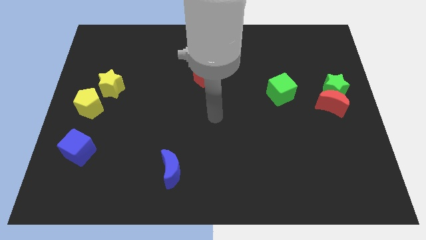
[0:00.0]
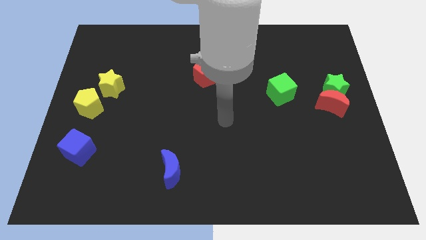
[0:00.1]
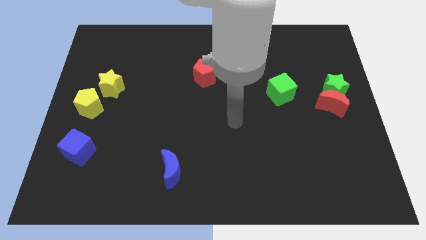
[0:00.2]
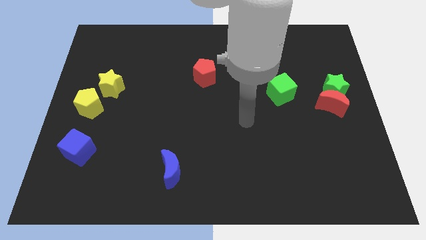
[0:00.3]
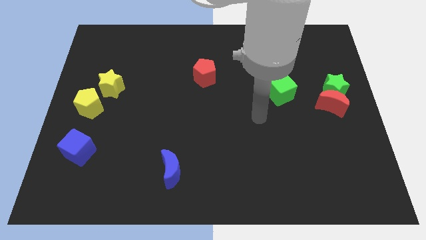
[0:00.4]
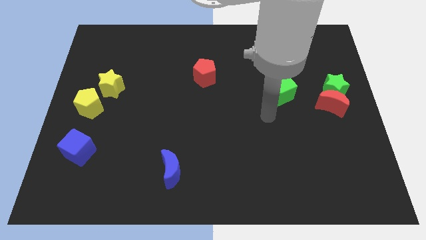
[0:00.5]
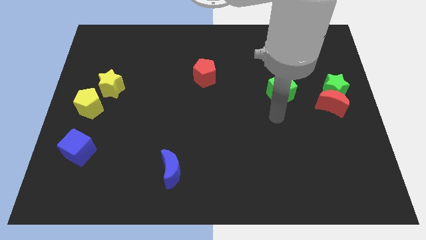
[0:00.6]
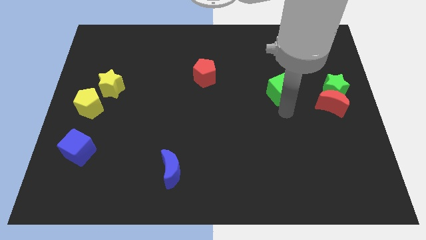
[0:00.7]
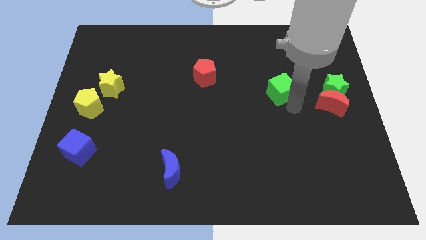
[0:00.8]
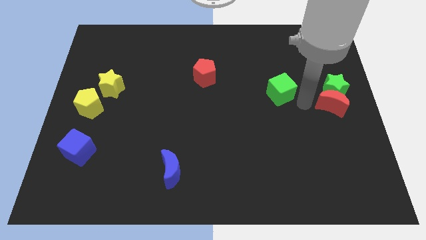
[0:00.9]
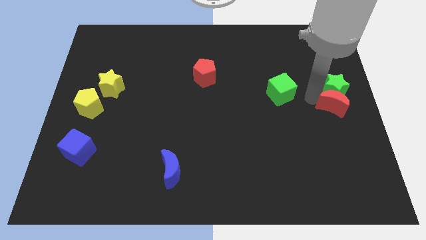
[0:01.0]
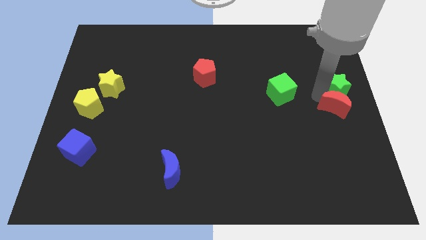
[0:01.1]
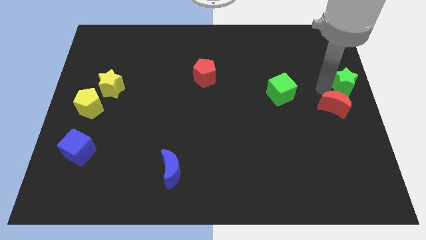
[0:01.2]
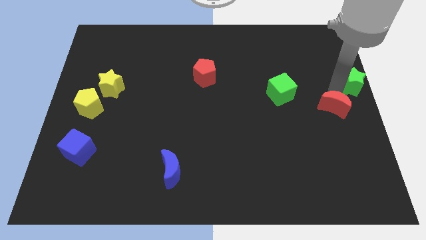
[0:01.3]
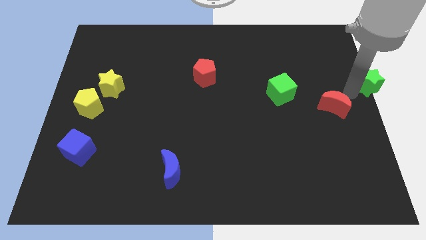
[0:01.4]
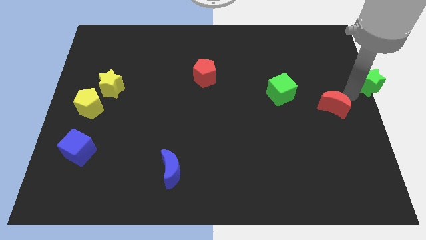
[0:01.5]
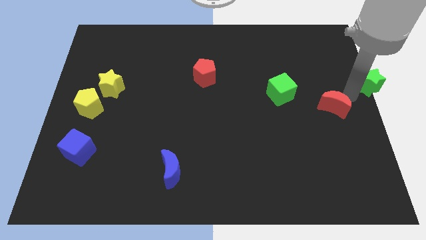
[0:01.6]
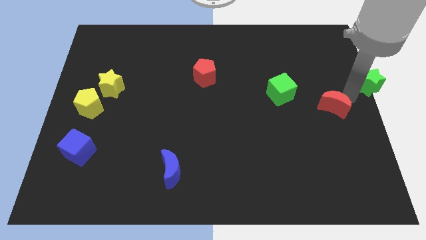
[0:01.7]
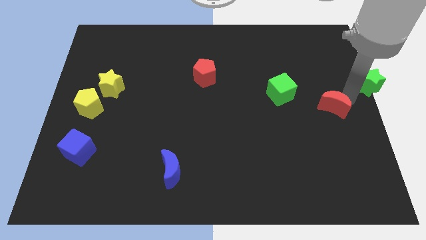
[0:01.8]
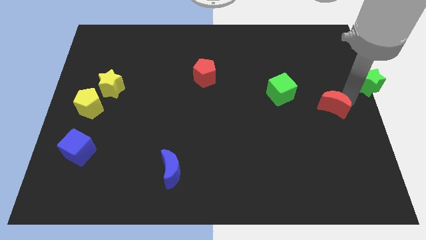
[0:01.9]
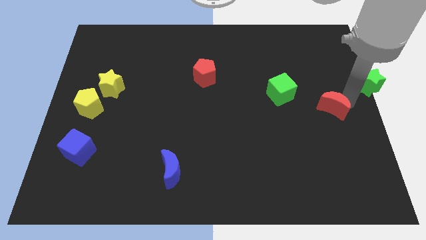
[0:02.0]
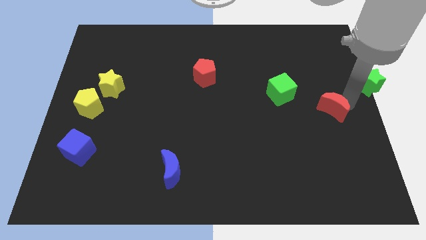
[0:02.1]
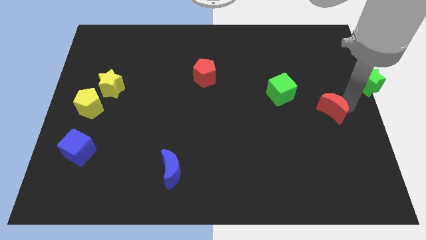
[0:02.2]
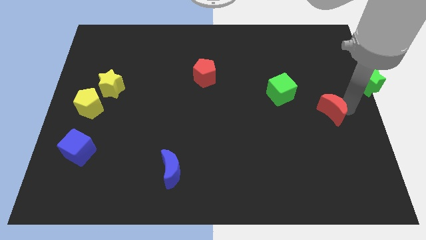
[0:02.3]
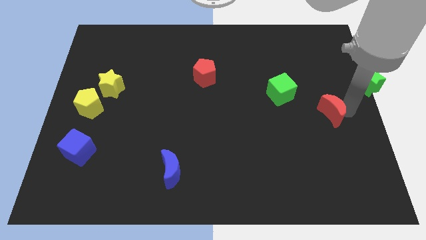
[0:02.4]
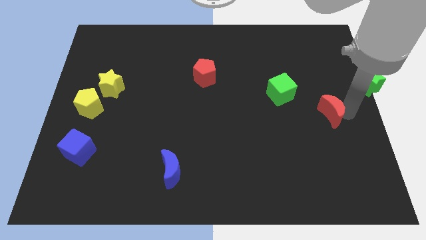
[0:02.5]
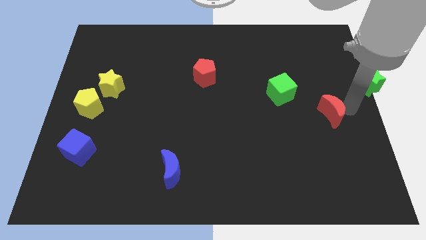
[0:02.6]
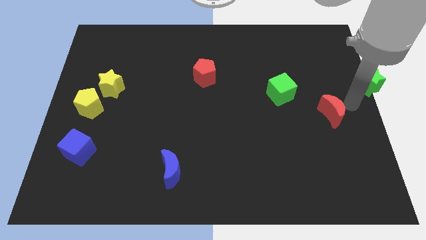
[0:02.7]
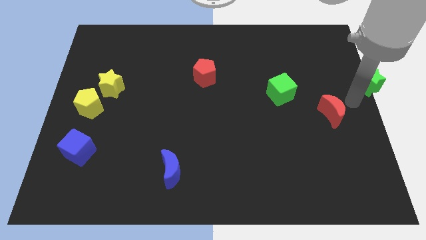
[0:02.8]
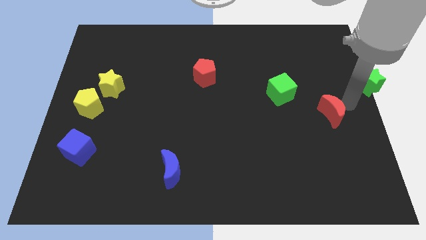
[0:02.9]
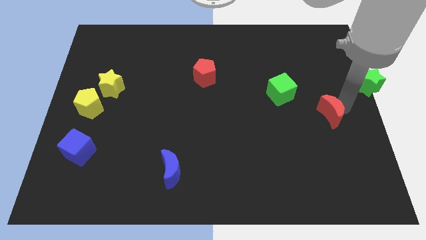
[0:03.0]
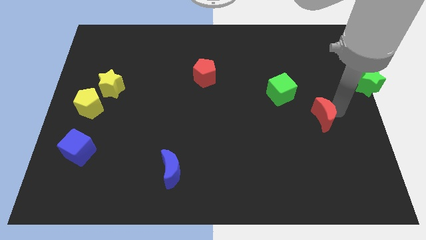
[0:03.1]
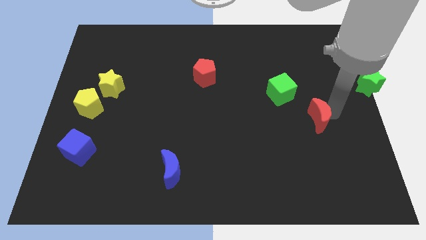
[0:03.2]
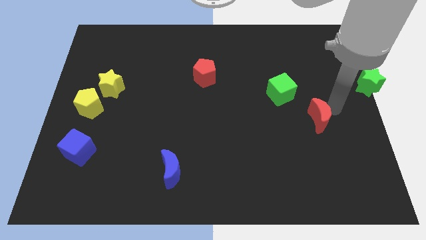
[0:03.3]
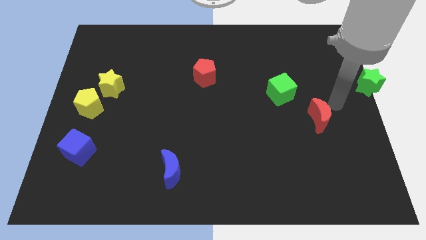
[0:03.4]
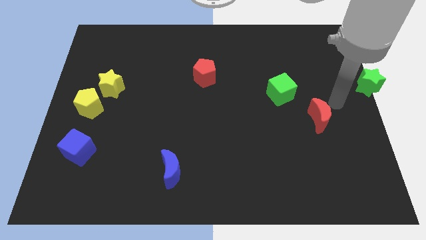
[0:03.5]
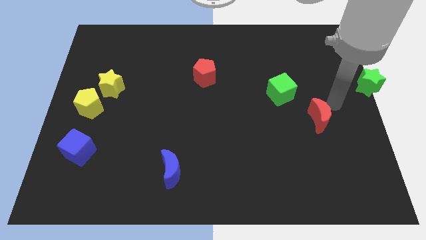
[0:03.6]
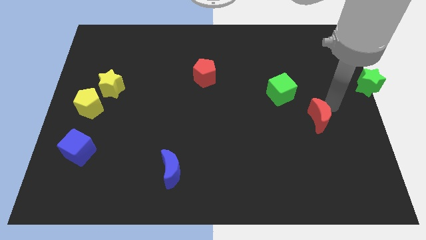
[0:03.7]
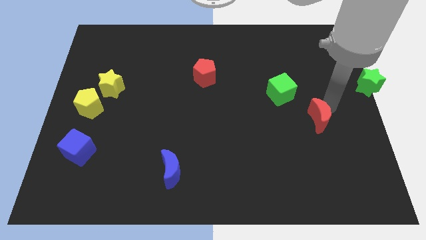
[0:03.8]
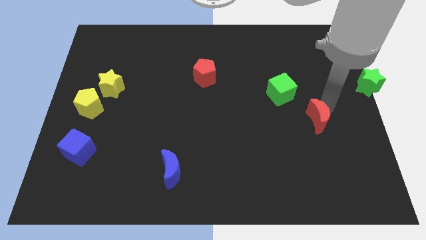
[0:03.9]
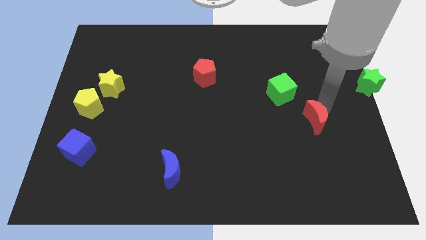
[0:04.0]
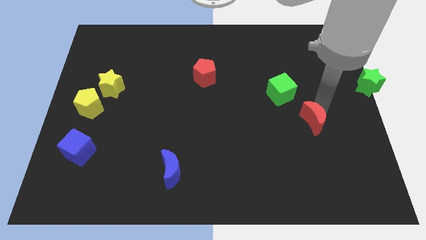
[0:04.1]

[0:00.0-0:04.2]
move the red moon a bit diagonally down and to the left

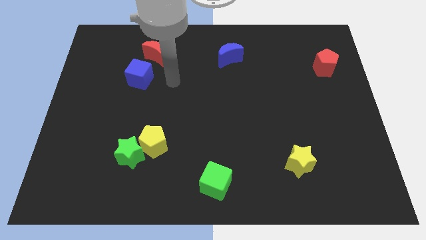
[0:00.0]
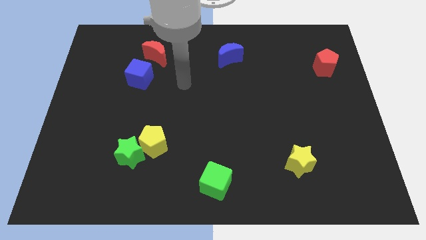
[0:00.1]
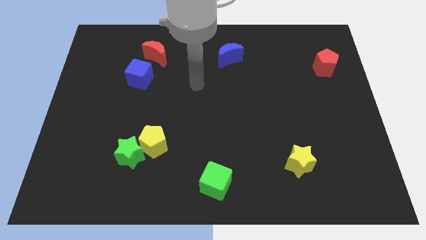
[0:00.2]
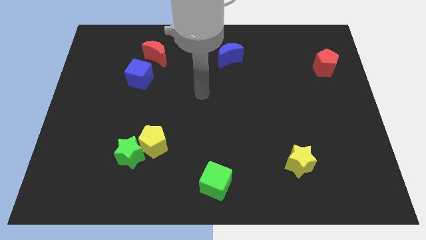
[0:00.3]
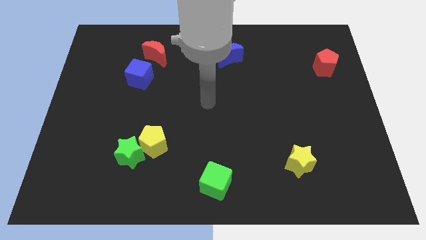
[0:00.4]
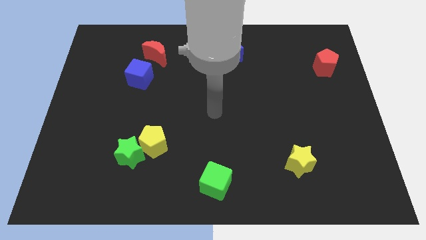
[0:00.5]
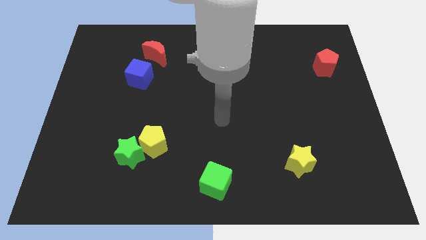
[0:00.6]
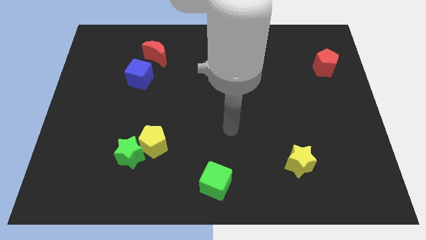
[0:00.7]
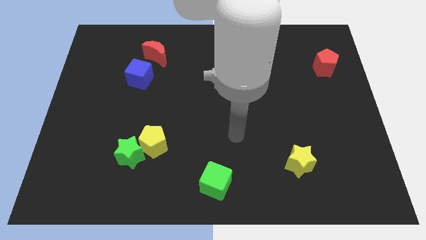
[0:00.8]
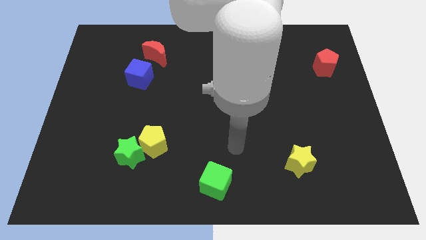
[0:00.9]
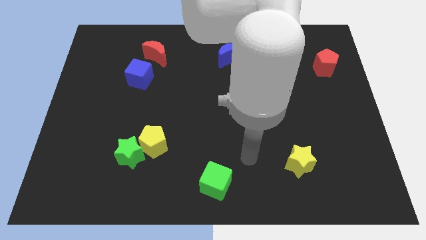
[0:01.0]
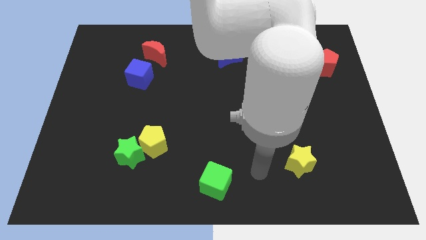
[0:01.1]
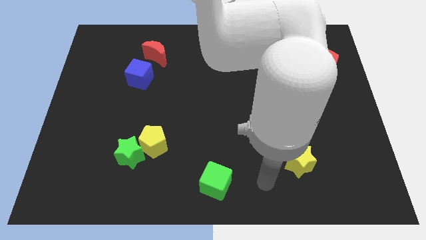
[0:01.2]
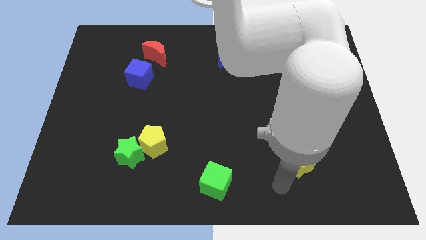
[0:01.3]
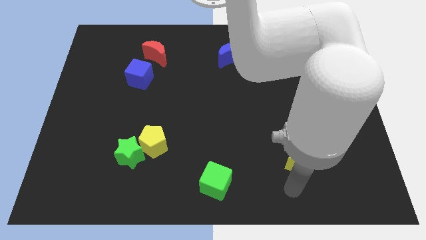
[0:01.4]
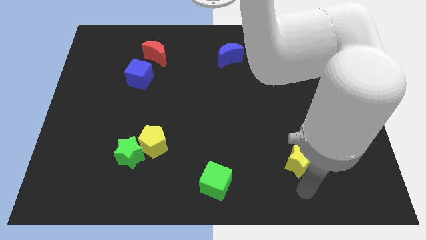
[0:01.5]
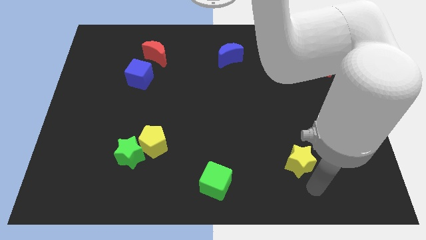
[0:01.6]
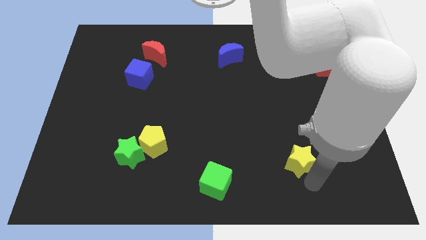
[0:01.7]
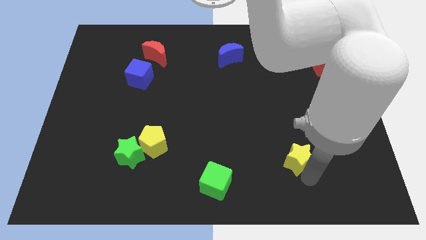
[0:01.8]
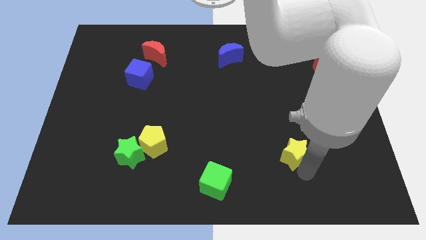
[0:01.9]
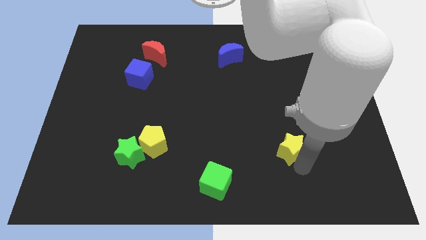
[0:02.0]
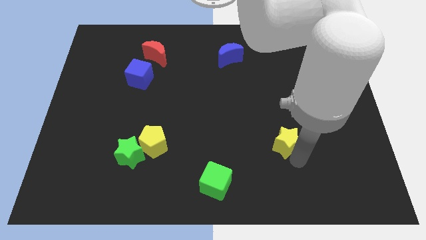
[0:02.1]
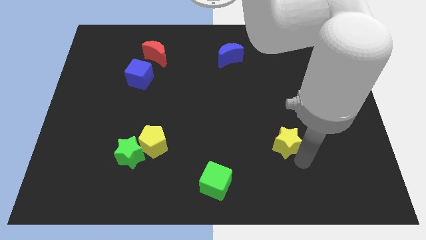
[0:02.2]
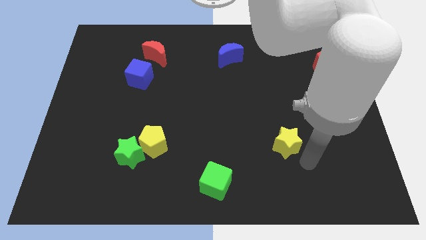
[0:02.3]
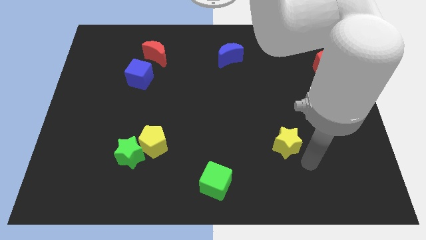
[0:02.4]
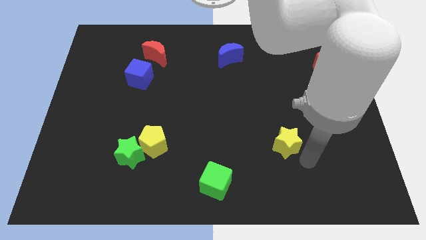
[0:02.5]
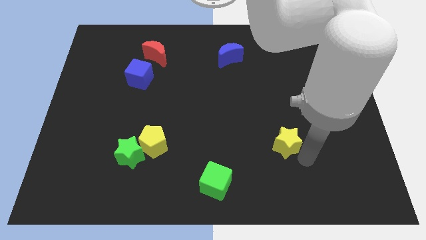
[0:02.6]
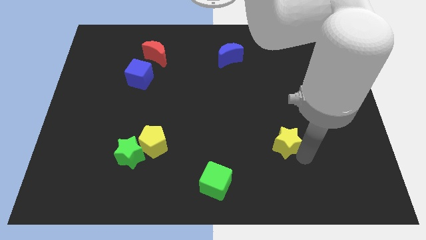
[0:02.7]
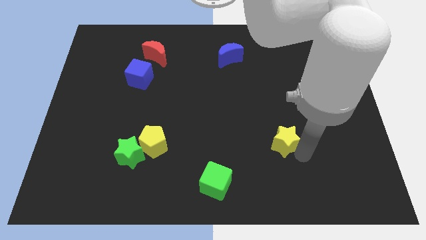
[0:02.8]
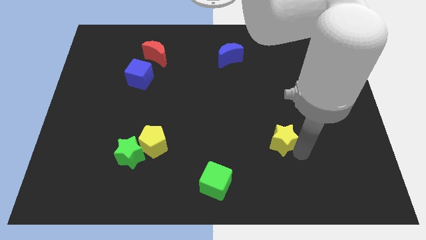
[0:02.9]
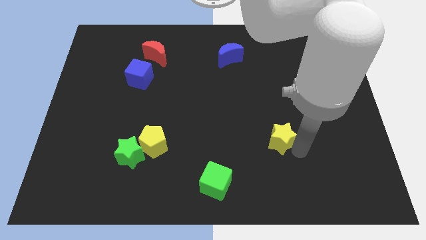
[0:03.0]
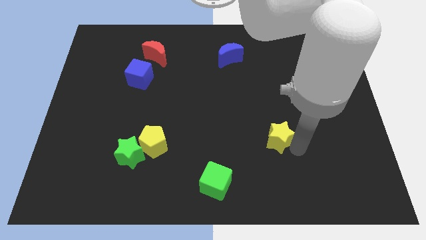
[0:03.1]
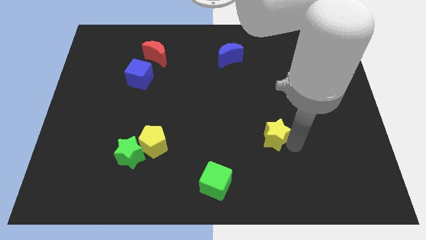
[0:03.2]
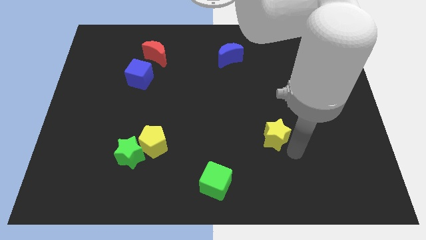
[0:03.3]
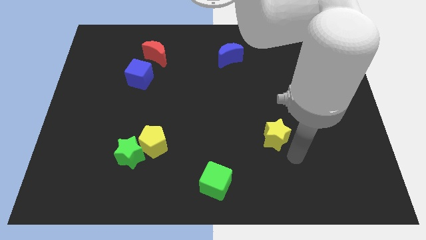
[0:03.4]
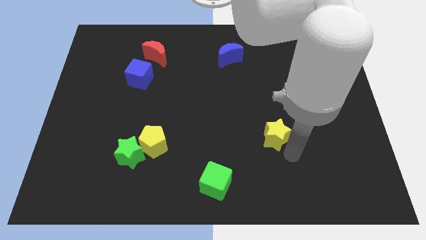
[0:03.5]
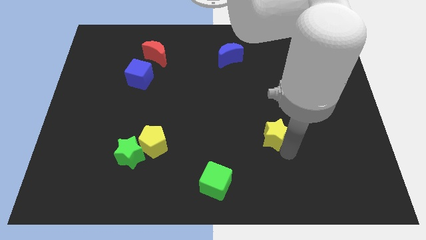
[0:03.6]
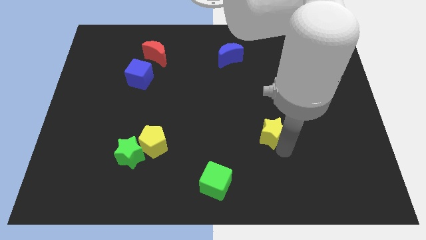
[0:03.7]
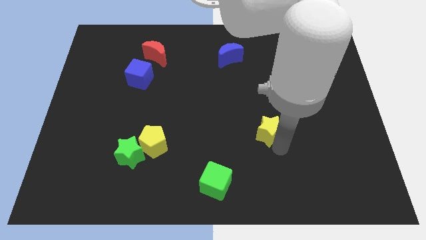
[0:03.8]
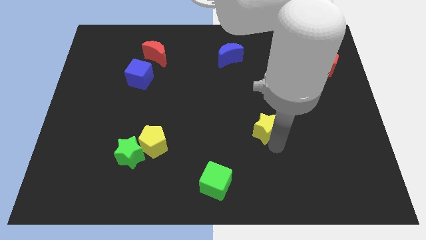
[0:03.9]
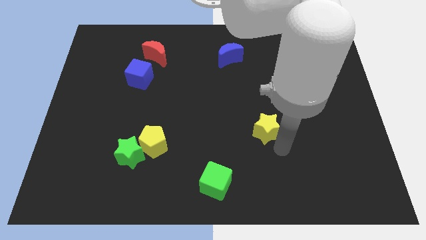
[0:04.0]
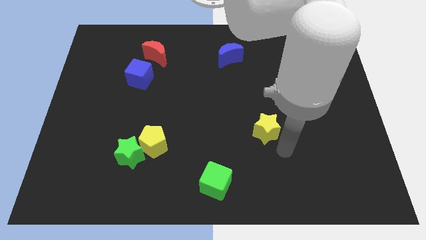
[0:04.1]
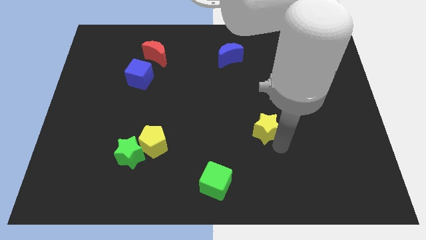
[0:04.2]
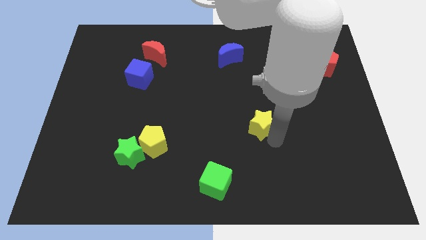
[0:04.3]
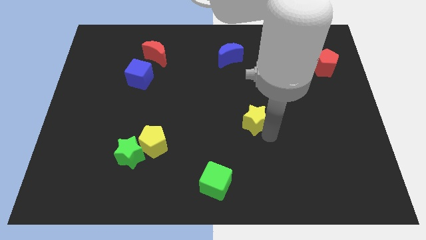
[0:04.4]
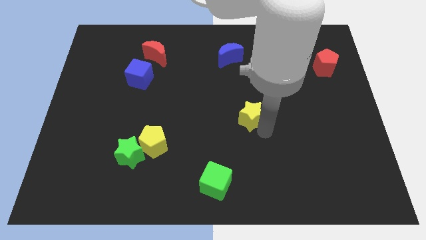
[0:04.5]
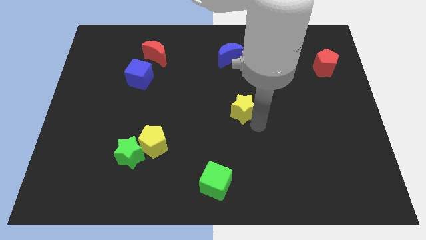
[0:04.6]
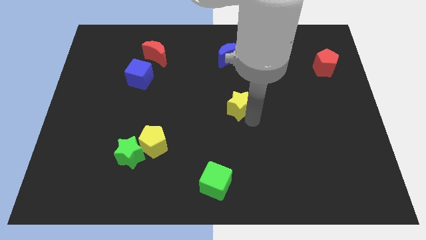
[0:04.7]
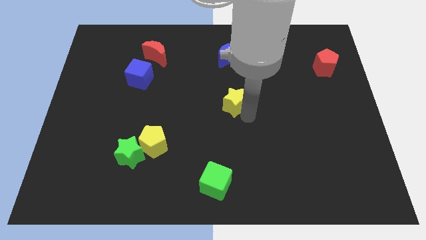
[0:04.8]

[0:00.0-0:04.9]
push the yellow star up and left diagonally
